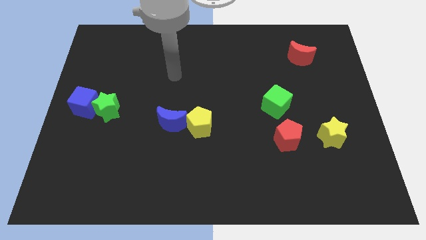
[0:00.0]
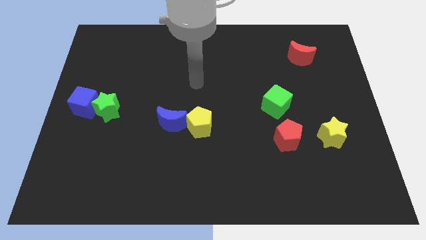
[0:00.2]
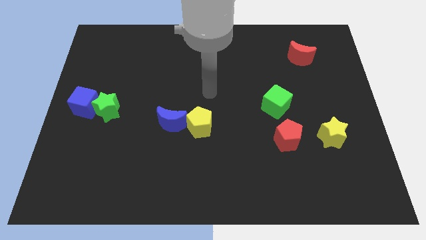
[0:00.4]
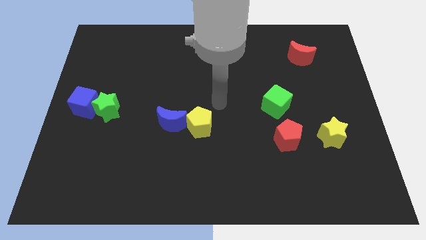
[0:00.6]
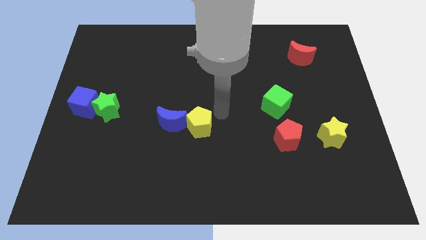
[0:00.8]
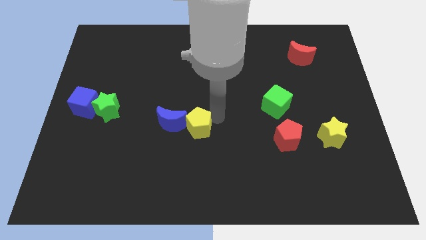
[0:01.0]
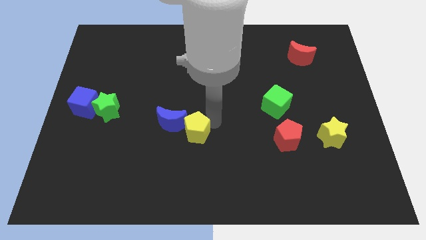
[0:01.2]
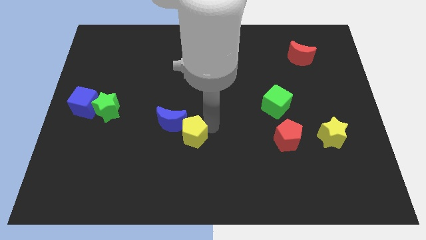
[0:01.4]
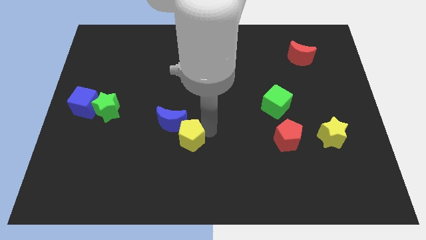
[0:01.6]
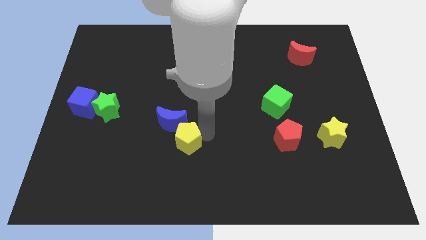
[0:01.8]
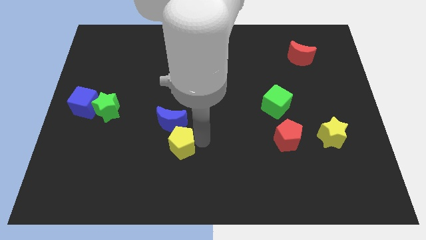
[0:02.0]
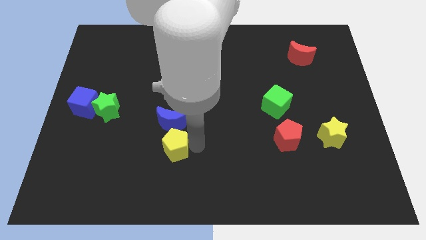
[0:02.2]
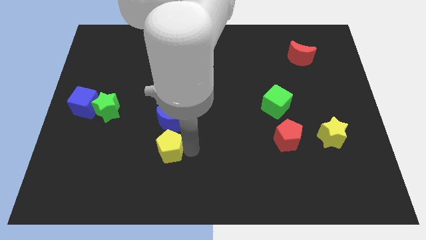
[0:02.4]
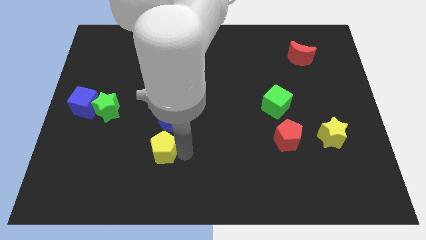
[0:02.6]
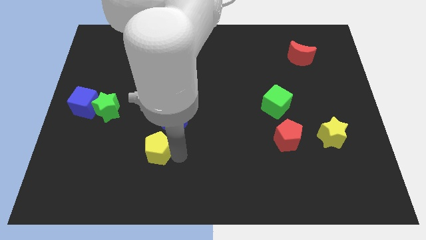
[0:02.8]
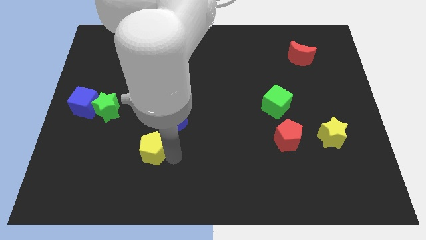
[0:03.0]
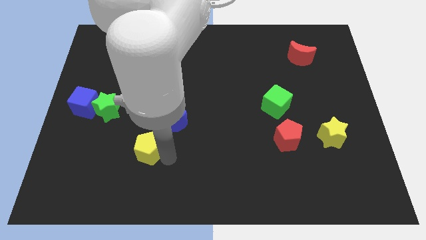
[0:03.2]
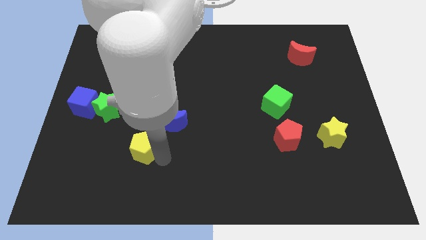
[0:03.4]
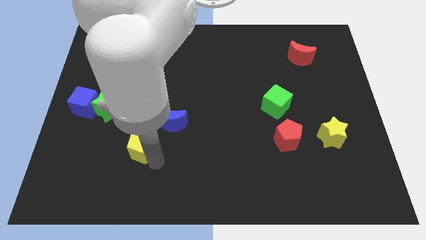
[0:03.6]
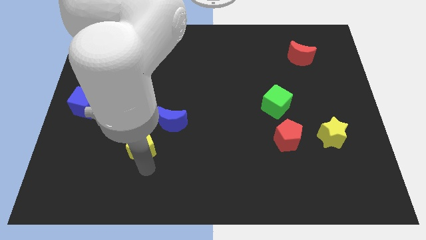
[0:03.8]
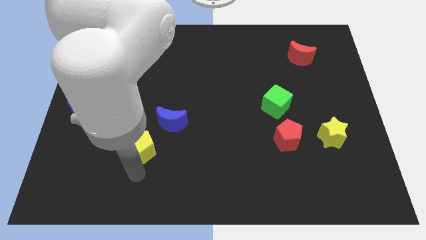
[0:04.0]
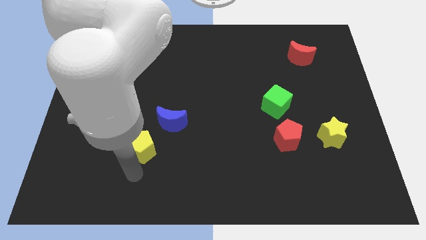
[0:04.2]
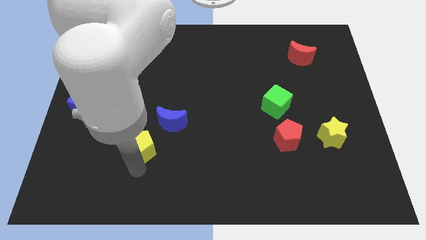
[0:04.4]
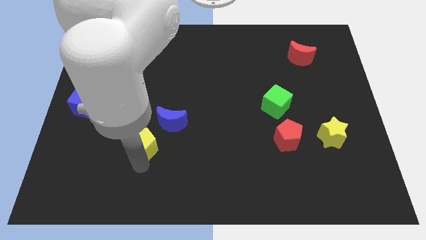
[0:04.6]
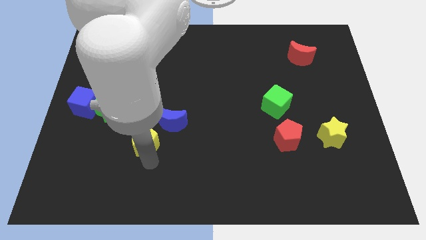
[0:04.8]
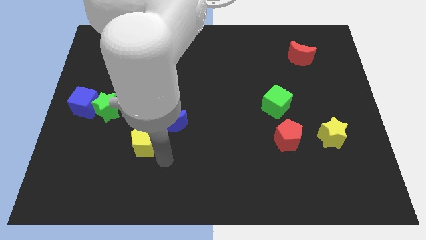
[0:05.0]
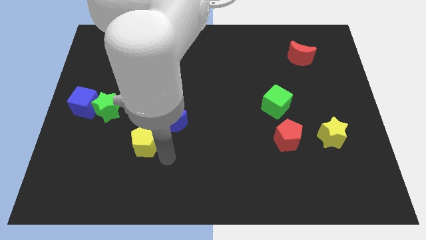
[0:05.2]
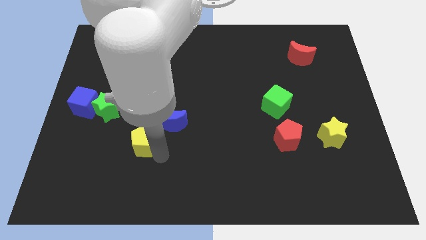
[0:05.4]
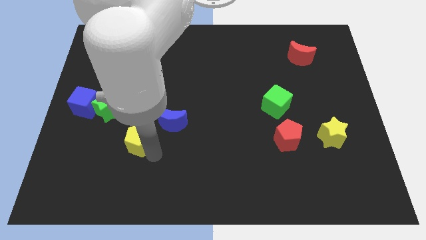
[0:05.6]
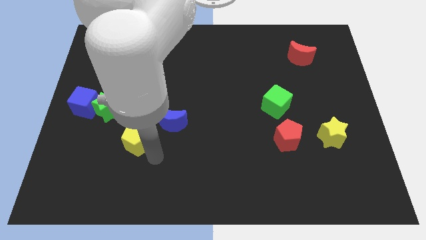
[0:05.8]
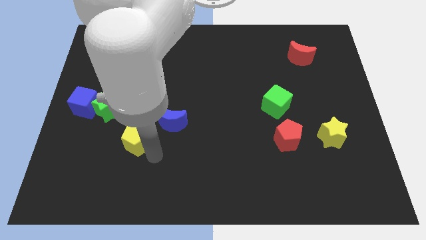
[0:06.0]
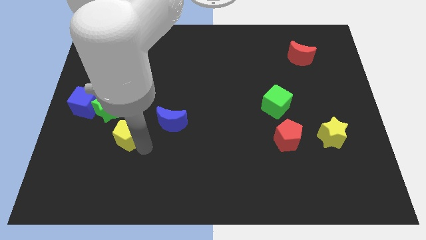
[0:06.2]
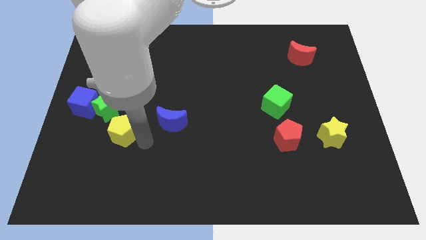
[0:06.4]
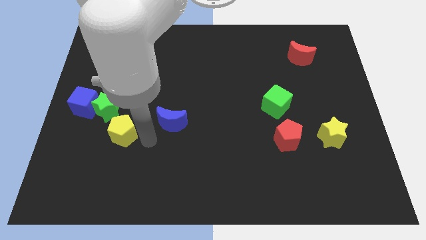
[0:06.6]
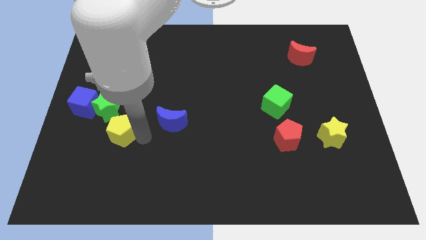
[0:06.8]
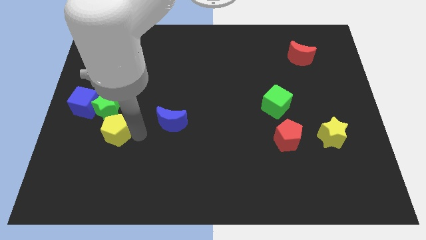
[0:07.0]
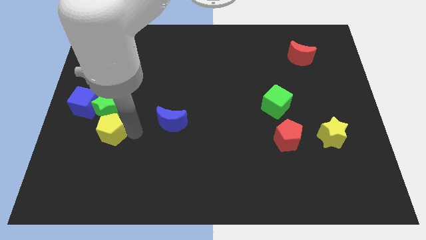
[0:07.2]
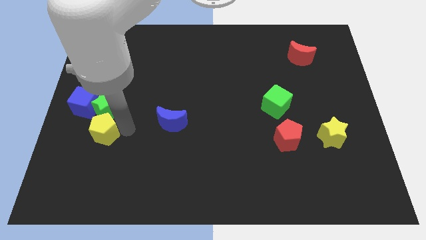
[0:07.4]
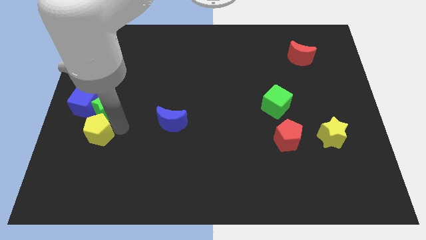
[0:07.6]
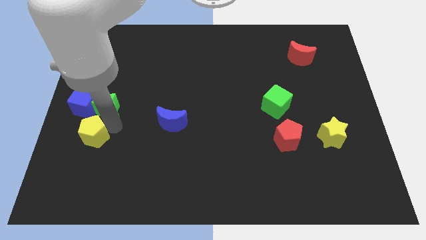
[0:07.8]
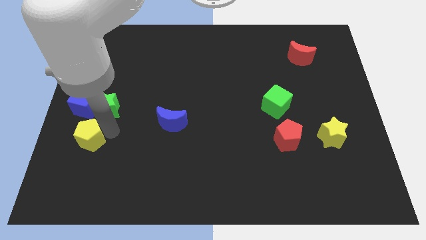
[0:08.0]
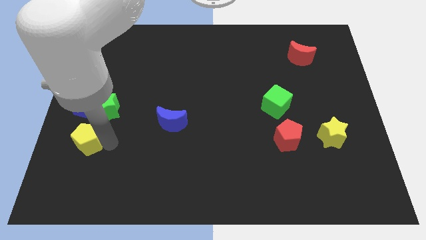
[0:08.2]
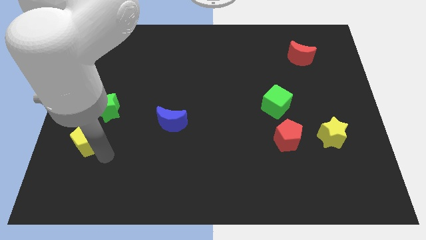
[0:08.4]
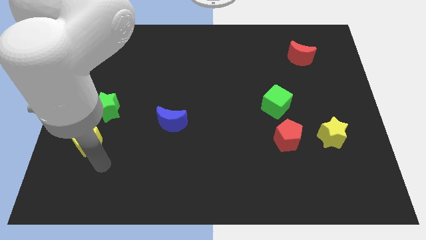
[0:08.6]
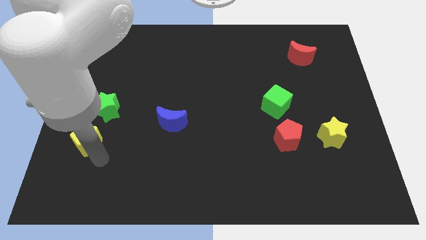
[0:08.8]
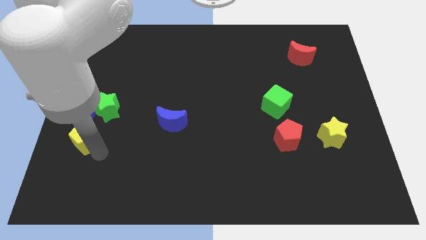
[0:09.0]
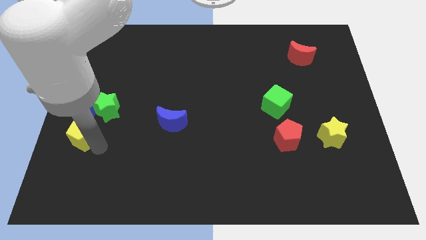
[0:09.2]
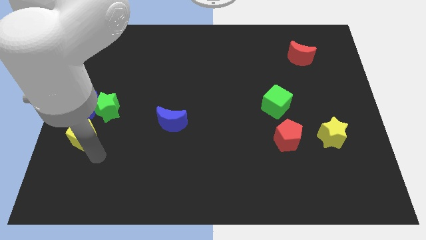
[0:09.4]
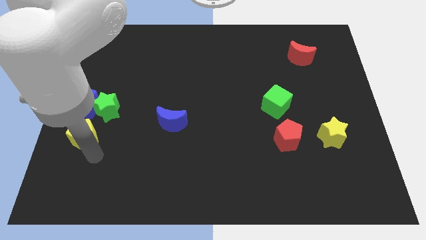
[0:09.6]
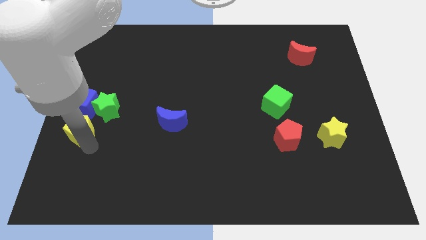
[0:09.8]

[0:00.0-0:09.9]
move the yellow pentagon to the left side

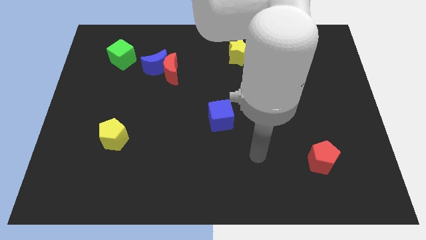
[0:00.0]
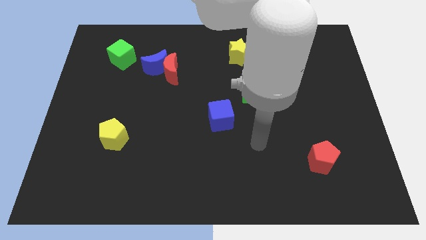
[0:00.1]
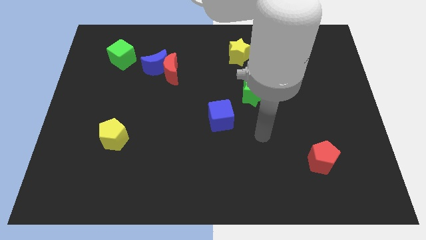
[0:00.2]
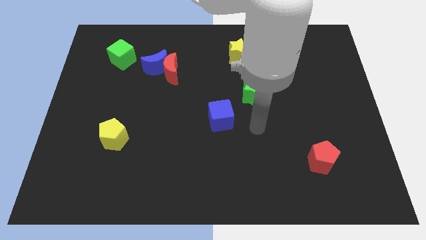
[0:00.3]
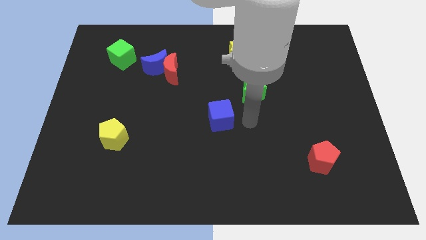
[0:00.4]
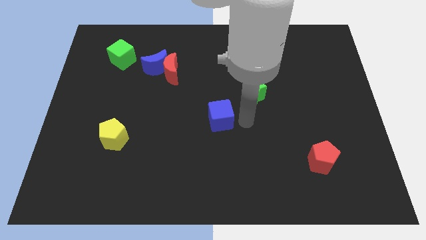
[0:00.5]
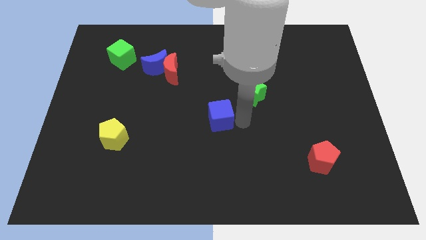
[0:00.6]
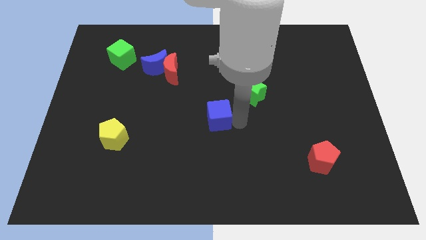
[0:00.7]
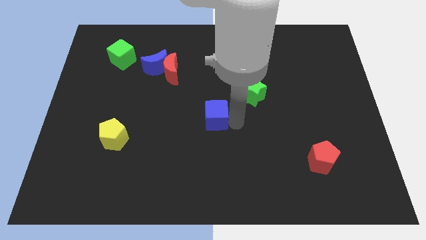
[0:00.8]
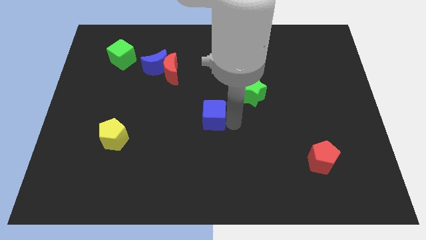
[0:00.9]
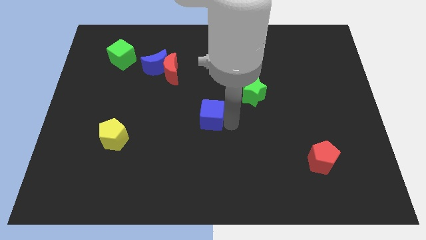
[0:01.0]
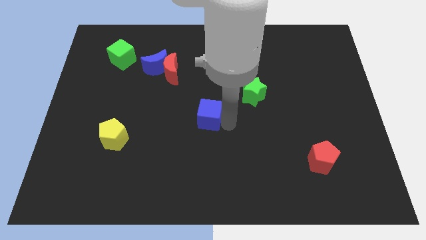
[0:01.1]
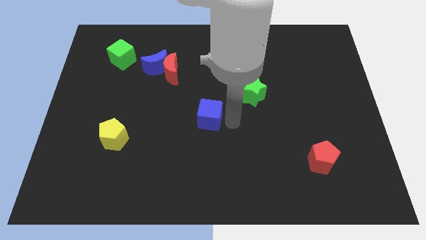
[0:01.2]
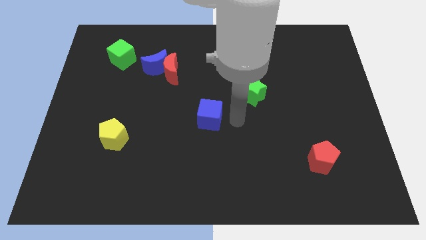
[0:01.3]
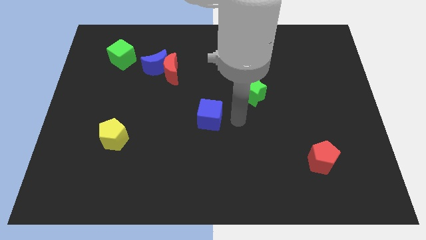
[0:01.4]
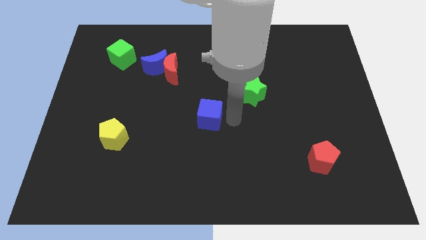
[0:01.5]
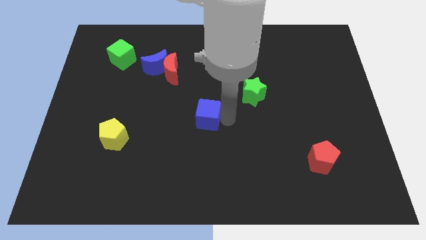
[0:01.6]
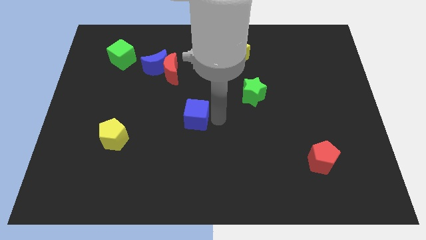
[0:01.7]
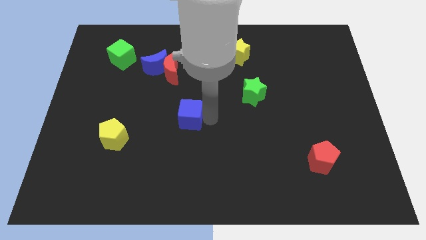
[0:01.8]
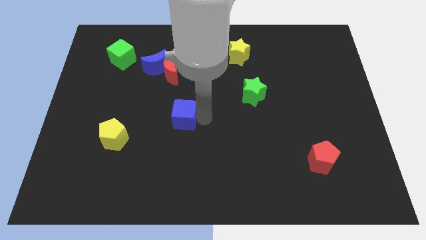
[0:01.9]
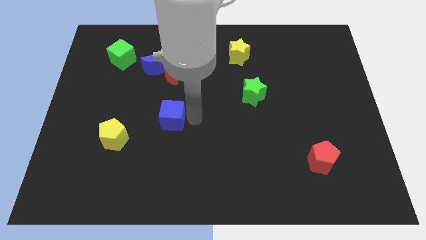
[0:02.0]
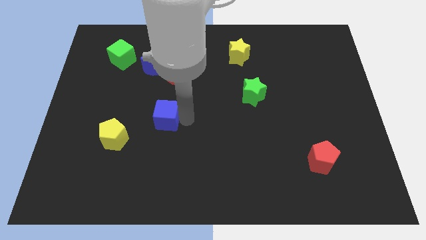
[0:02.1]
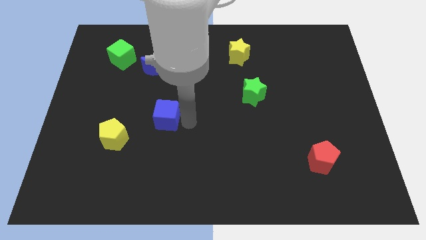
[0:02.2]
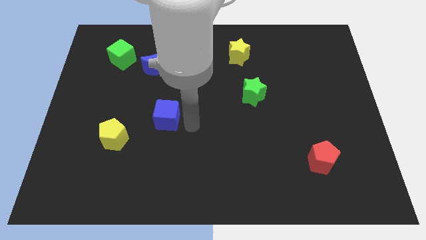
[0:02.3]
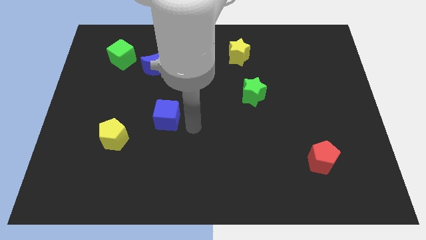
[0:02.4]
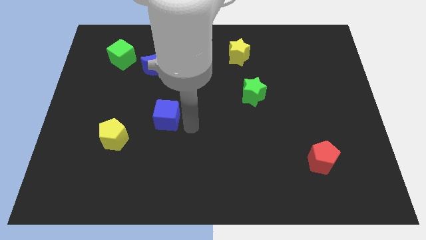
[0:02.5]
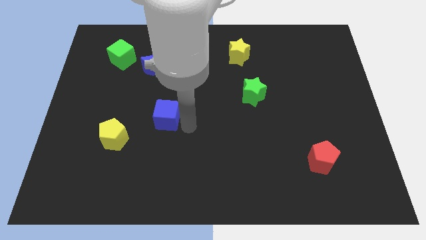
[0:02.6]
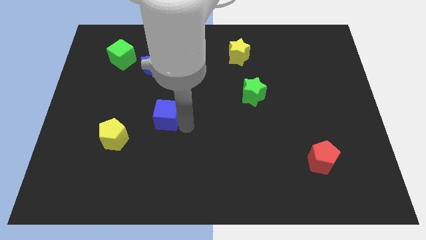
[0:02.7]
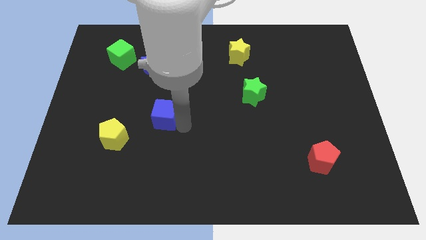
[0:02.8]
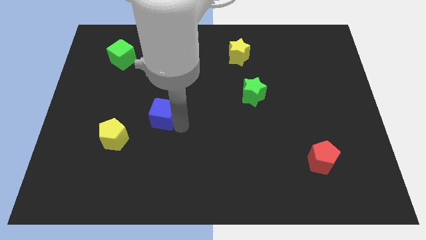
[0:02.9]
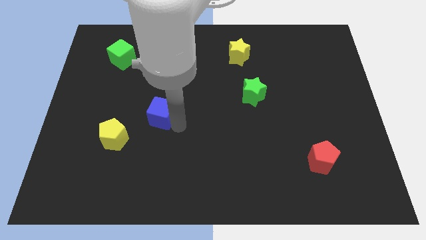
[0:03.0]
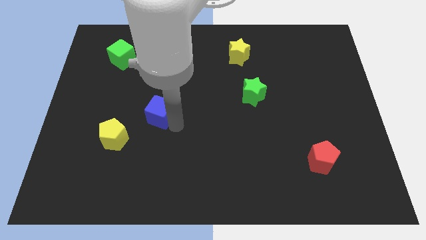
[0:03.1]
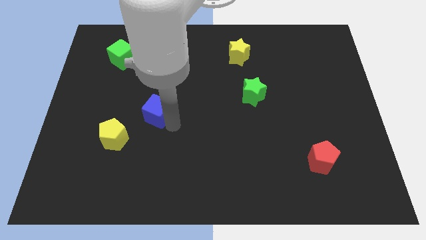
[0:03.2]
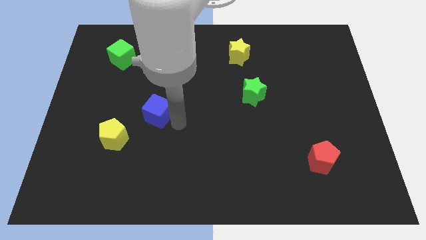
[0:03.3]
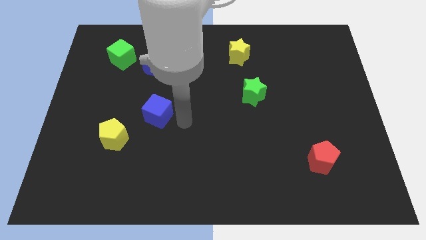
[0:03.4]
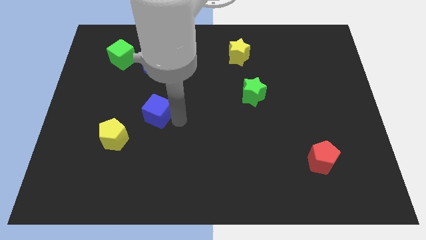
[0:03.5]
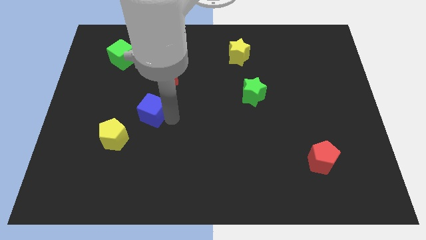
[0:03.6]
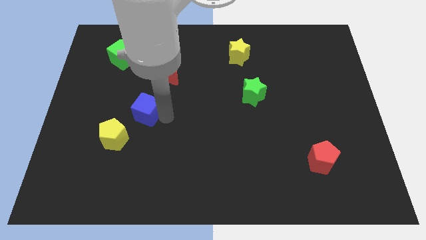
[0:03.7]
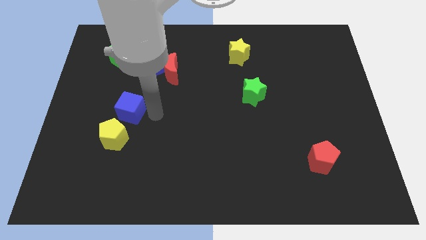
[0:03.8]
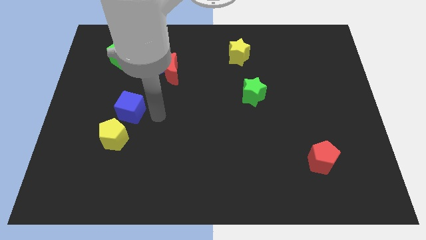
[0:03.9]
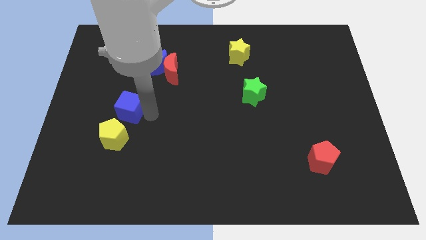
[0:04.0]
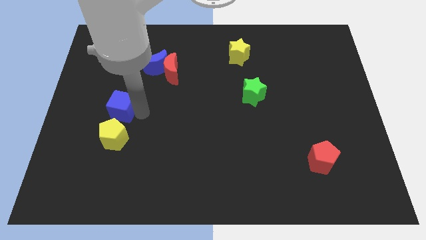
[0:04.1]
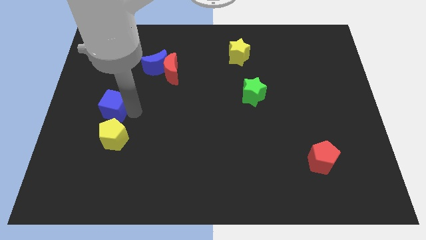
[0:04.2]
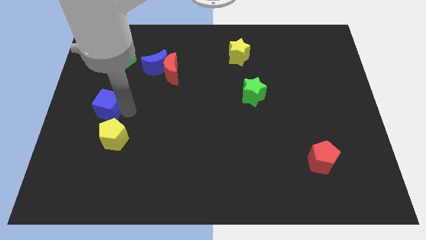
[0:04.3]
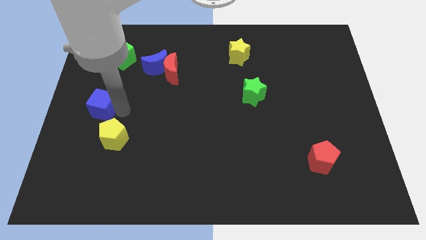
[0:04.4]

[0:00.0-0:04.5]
move the blue cube to the center left
